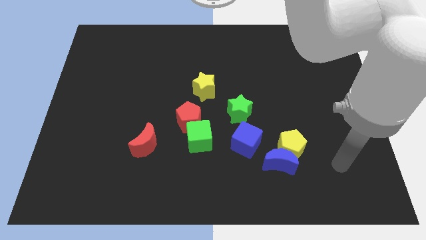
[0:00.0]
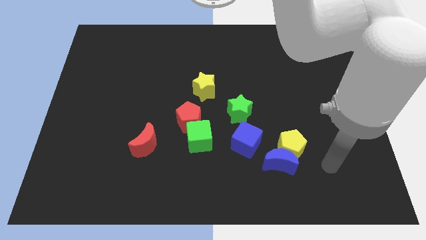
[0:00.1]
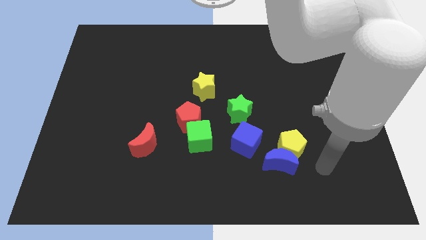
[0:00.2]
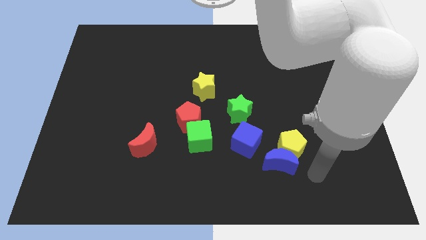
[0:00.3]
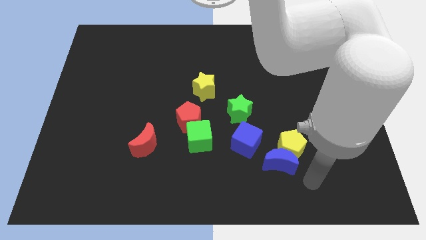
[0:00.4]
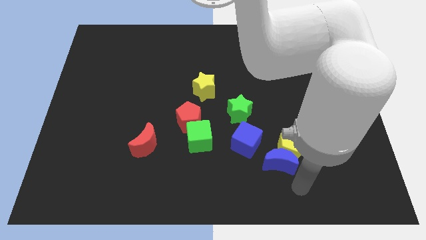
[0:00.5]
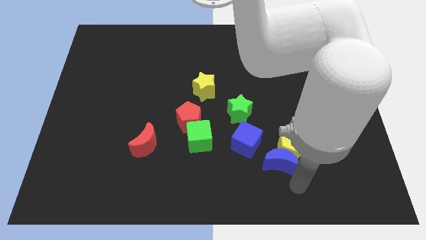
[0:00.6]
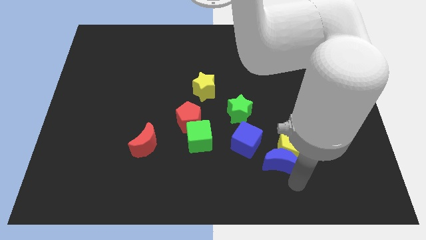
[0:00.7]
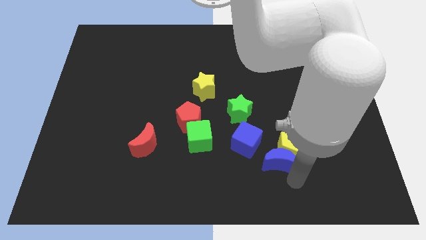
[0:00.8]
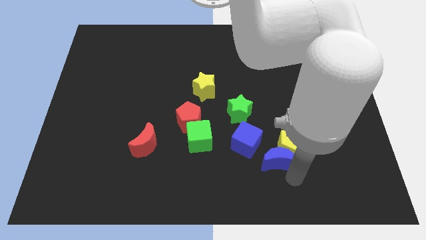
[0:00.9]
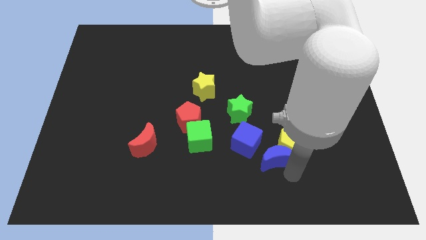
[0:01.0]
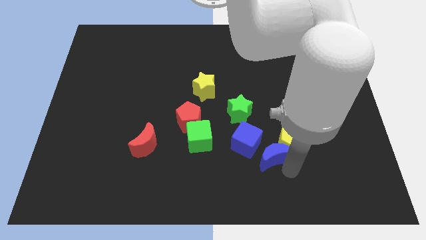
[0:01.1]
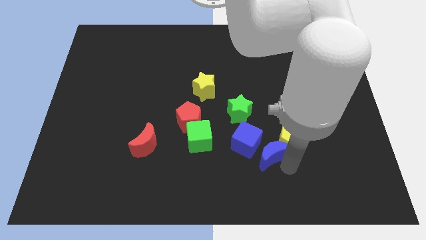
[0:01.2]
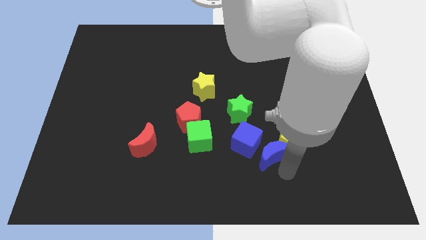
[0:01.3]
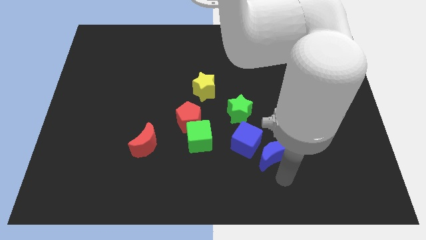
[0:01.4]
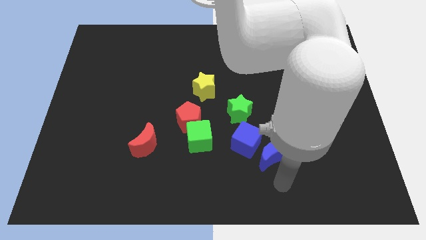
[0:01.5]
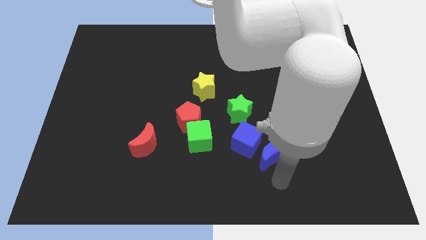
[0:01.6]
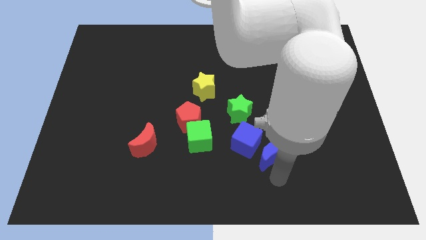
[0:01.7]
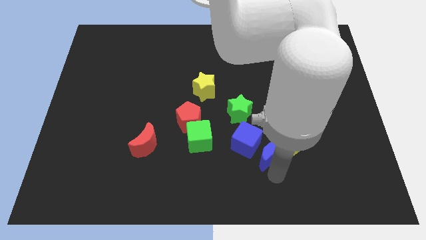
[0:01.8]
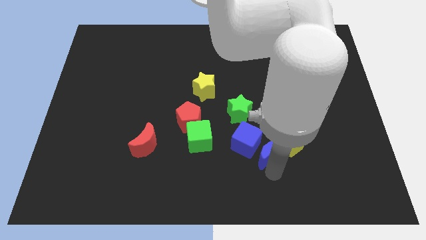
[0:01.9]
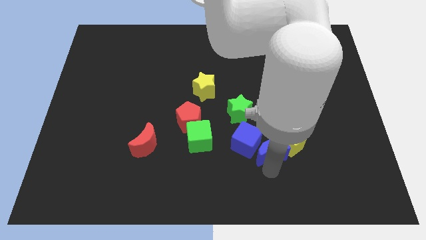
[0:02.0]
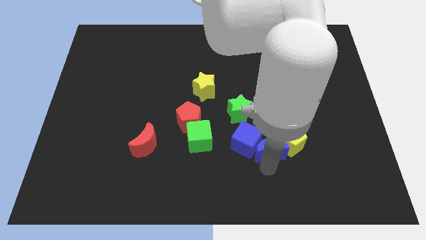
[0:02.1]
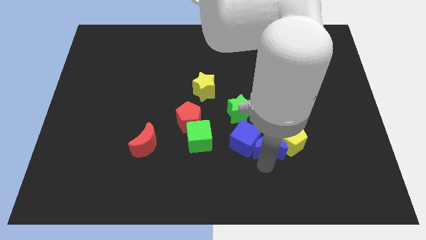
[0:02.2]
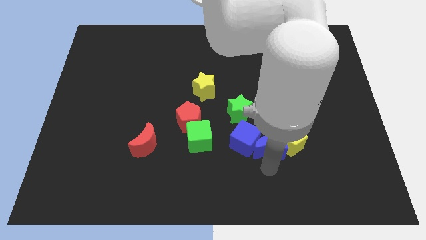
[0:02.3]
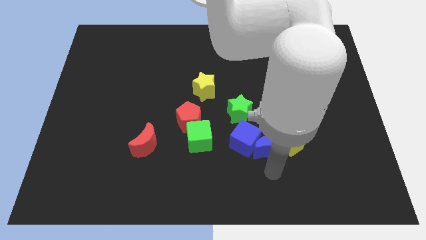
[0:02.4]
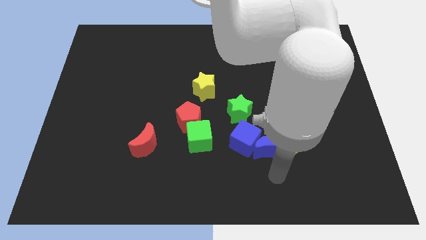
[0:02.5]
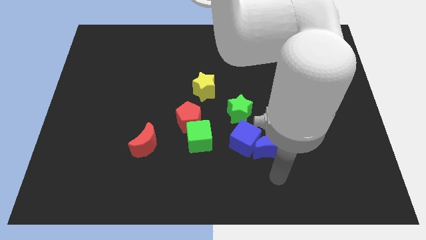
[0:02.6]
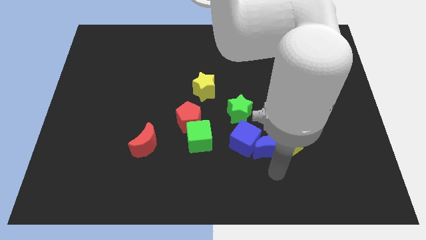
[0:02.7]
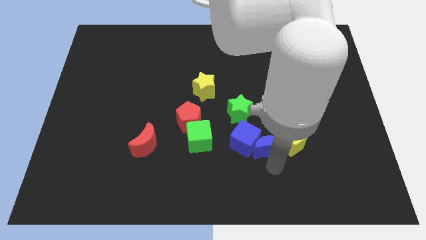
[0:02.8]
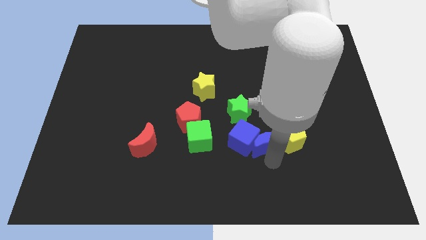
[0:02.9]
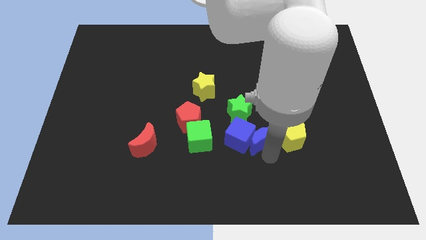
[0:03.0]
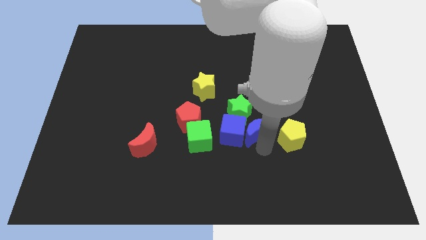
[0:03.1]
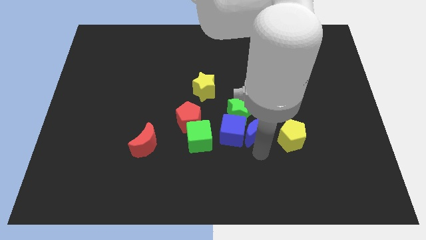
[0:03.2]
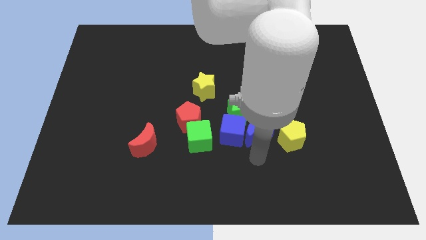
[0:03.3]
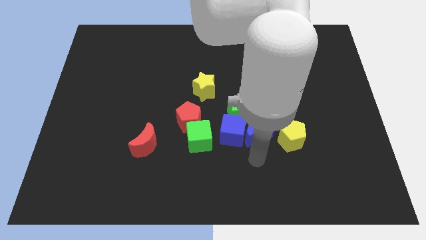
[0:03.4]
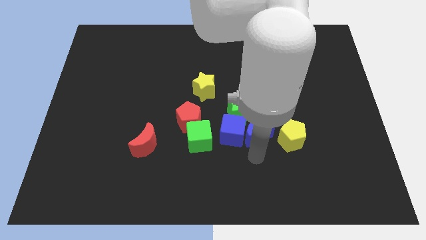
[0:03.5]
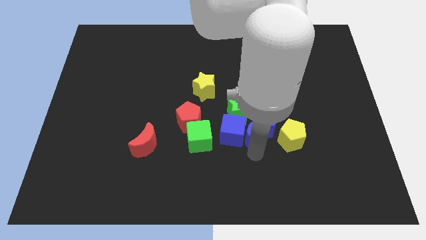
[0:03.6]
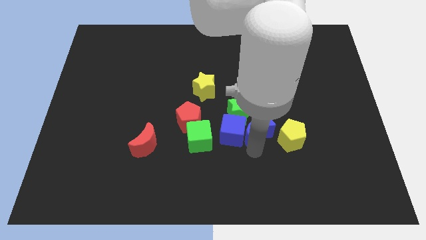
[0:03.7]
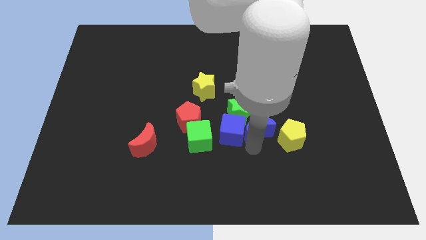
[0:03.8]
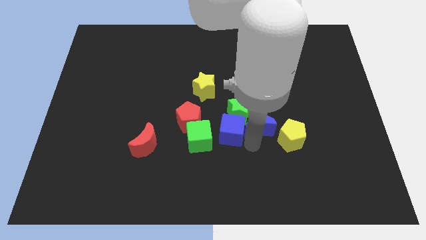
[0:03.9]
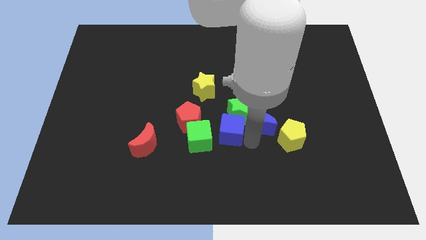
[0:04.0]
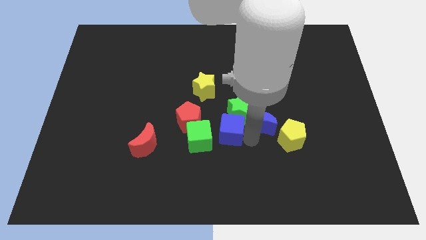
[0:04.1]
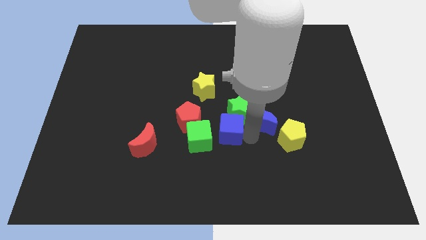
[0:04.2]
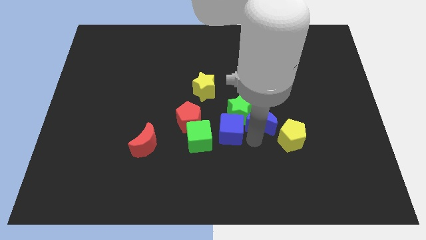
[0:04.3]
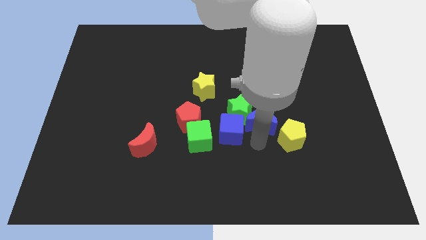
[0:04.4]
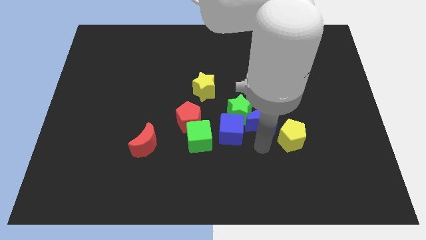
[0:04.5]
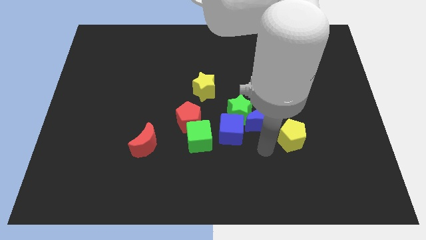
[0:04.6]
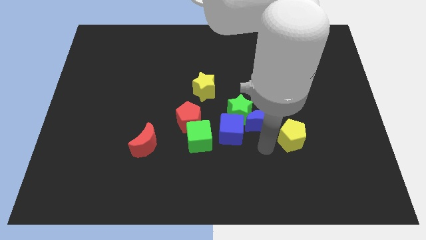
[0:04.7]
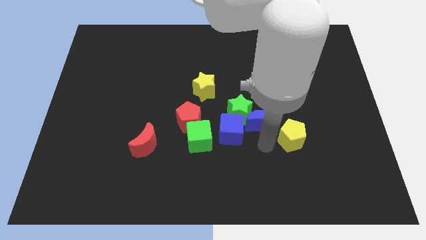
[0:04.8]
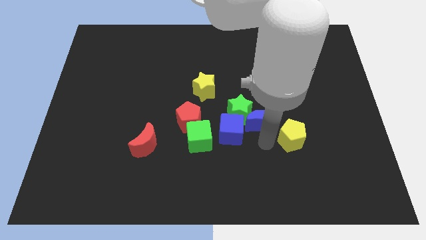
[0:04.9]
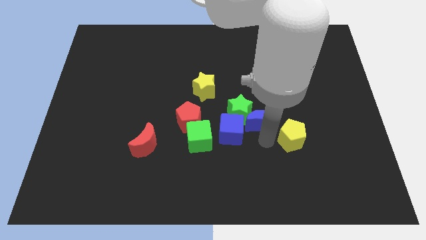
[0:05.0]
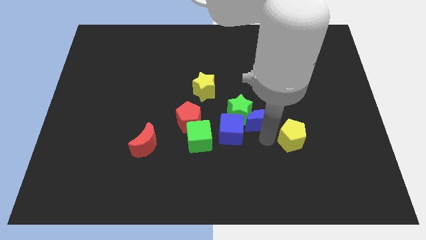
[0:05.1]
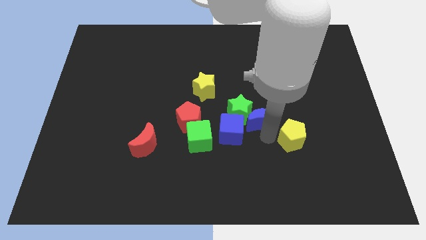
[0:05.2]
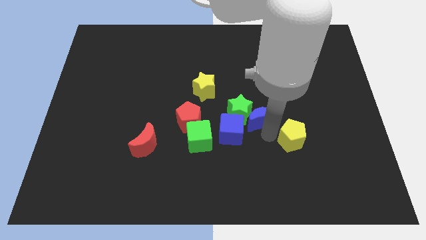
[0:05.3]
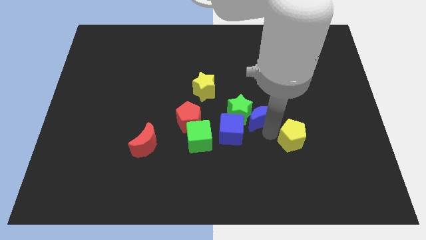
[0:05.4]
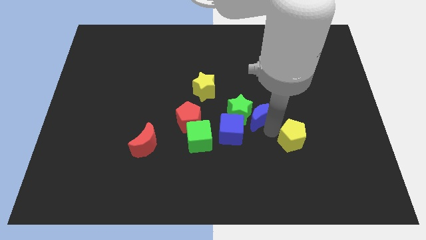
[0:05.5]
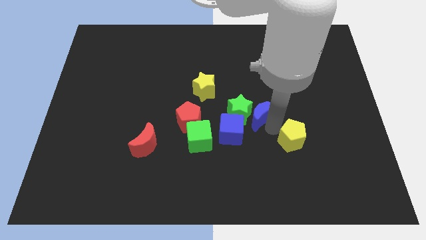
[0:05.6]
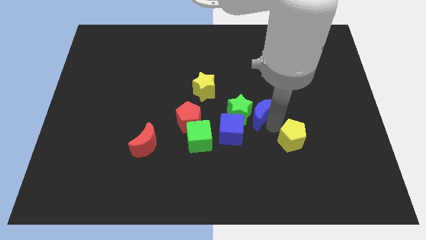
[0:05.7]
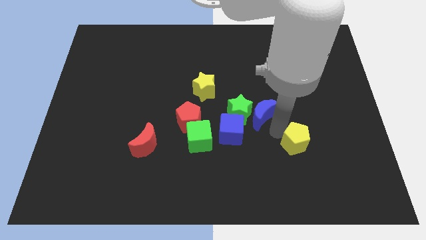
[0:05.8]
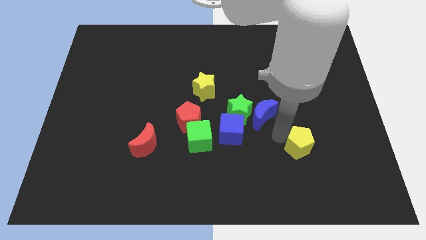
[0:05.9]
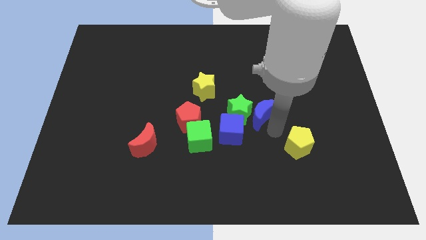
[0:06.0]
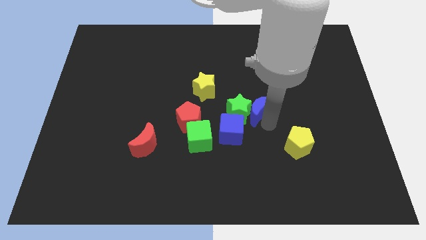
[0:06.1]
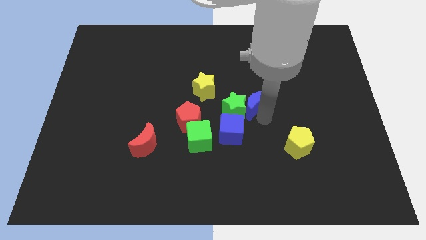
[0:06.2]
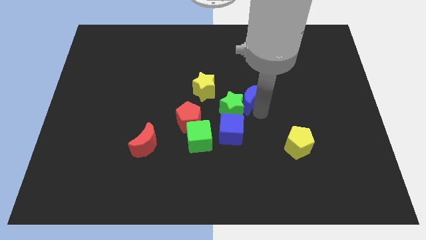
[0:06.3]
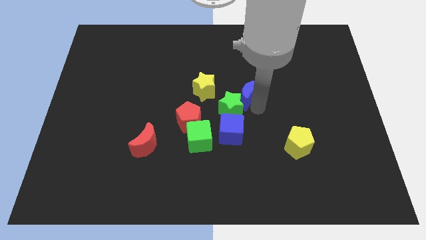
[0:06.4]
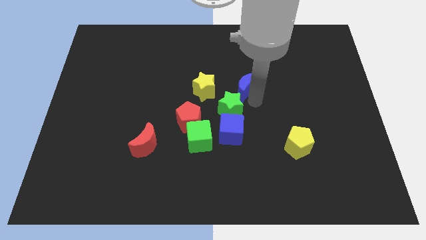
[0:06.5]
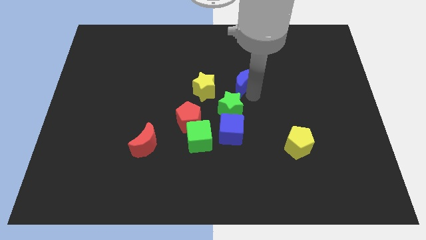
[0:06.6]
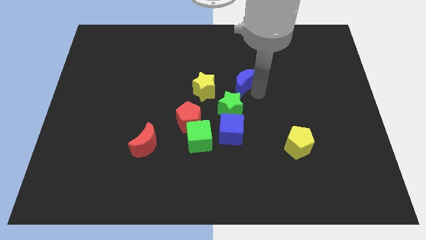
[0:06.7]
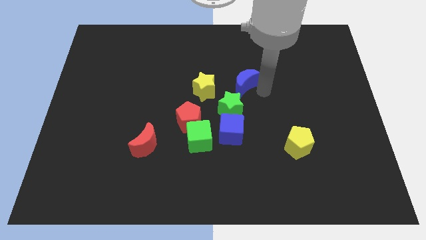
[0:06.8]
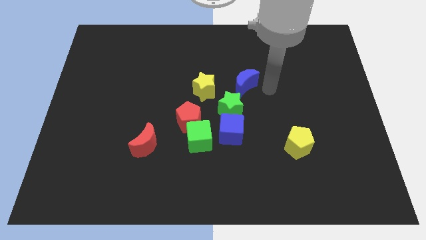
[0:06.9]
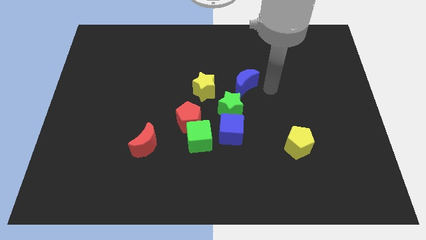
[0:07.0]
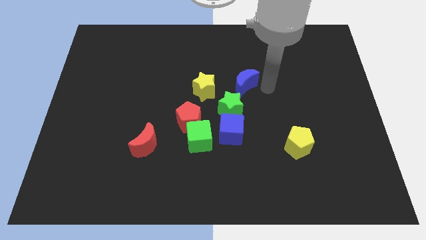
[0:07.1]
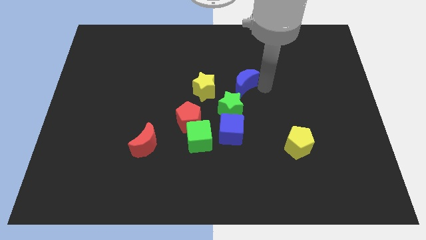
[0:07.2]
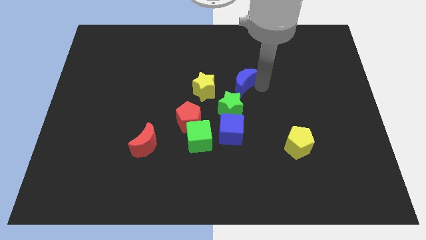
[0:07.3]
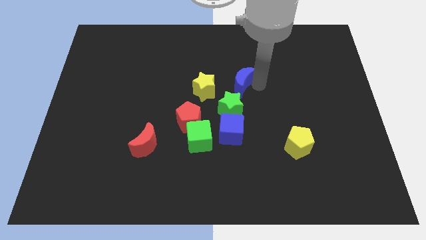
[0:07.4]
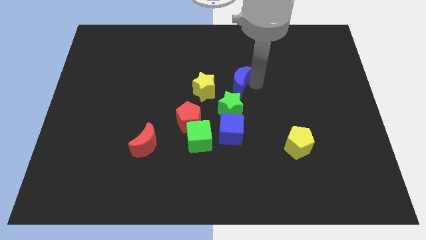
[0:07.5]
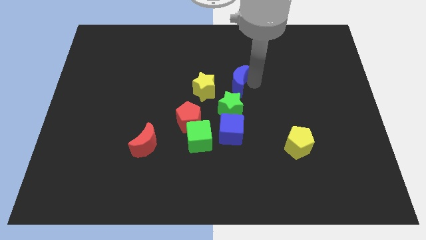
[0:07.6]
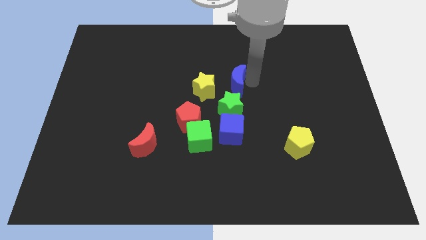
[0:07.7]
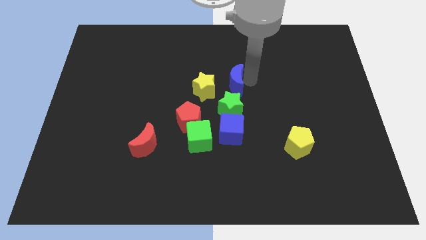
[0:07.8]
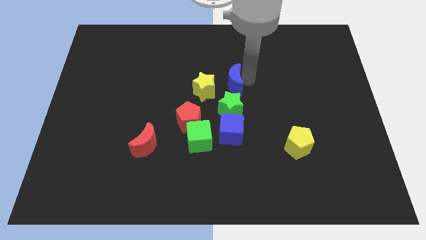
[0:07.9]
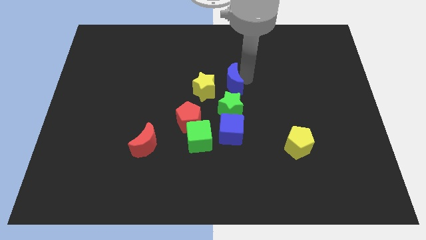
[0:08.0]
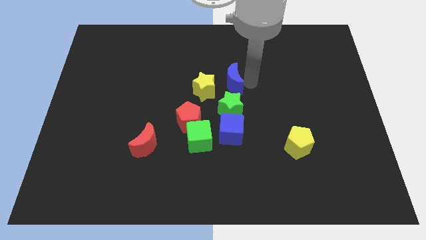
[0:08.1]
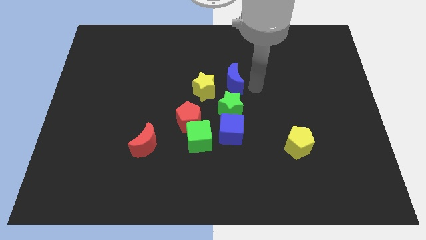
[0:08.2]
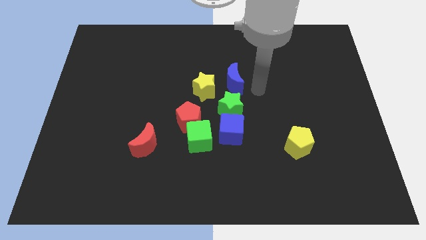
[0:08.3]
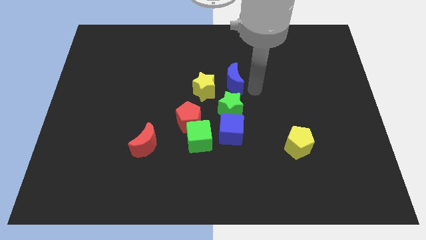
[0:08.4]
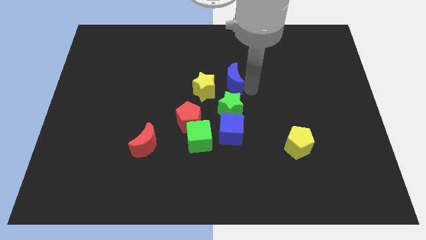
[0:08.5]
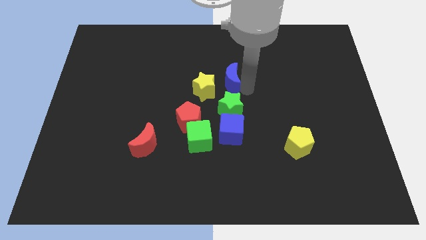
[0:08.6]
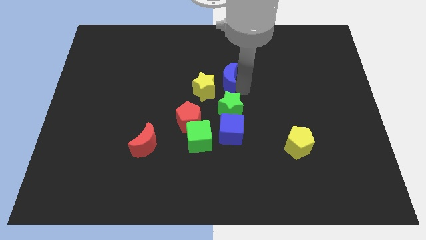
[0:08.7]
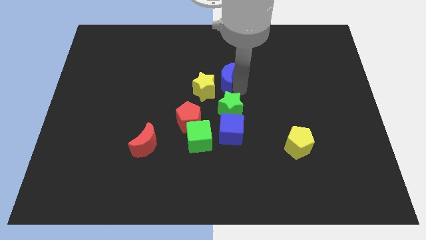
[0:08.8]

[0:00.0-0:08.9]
move the blue moon diagonally upwards and left
